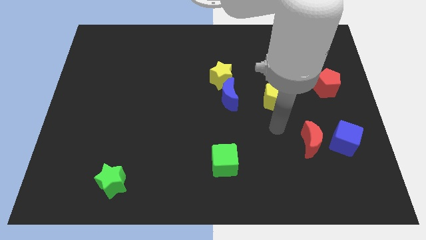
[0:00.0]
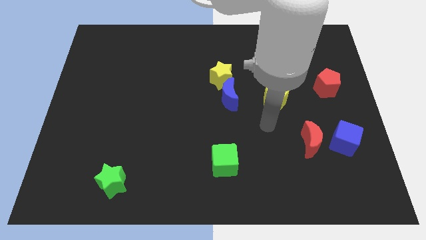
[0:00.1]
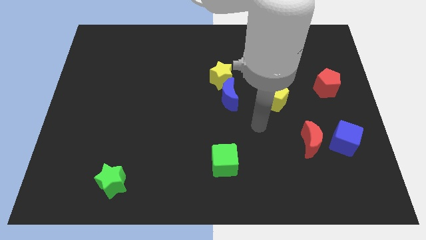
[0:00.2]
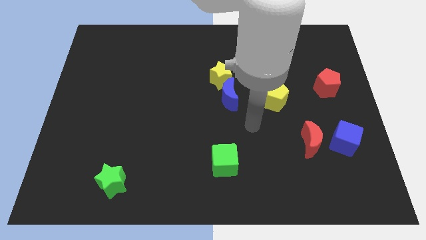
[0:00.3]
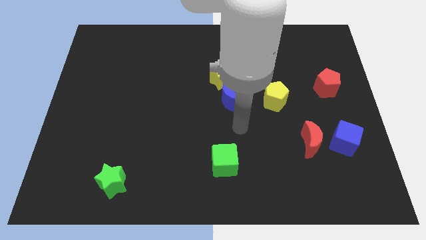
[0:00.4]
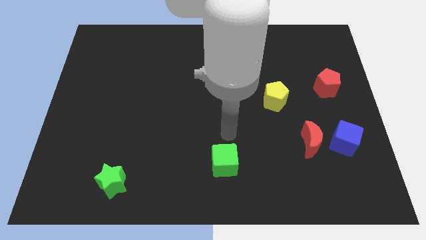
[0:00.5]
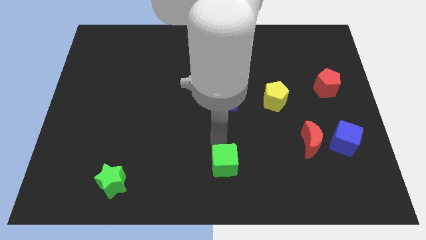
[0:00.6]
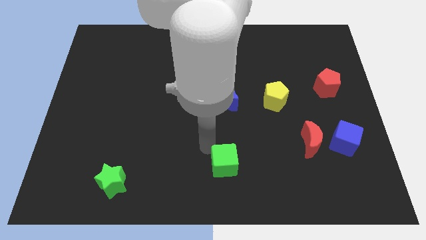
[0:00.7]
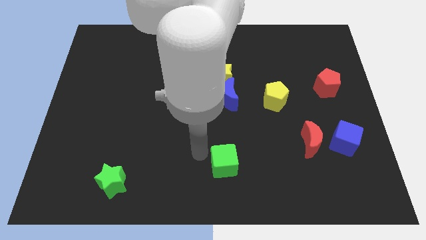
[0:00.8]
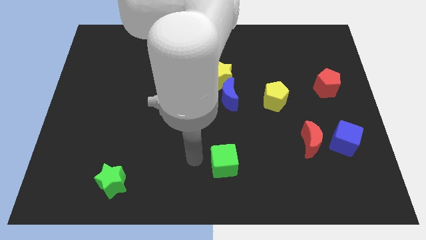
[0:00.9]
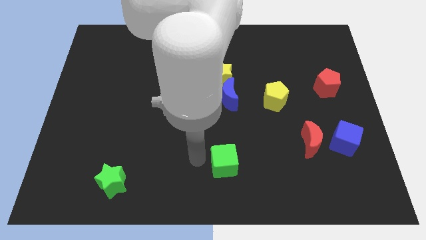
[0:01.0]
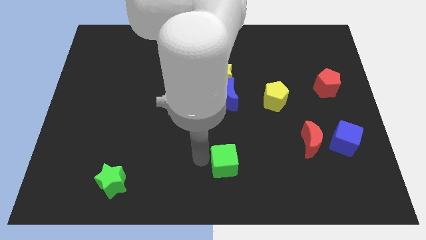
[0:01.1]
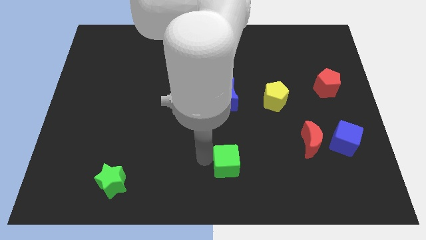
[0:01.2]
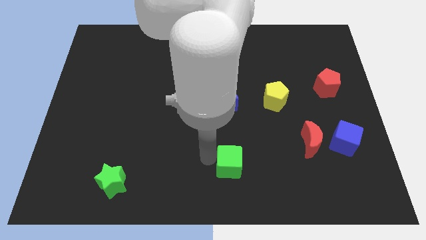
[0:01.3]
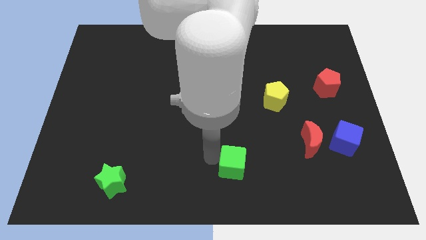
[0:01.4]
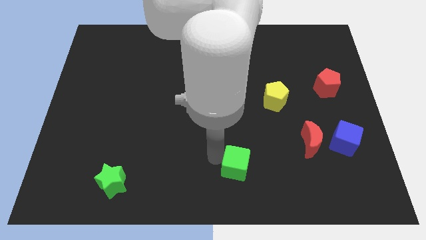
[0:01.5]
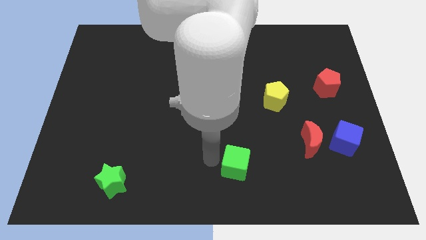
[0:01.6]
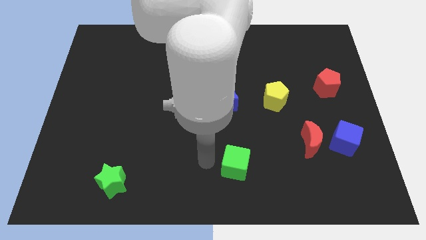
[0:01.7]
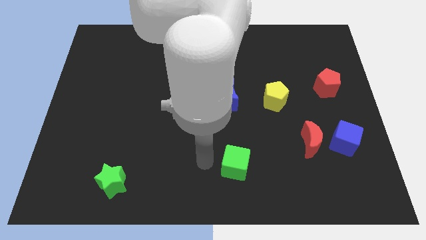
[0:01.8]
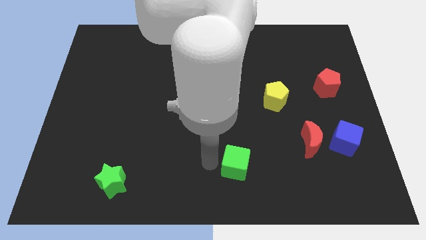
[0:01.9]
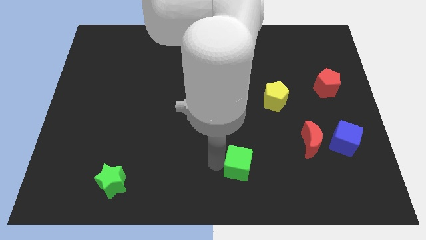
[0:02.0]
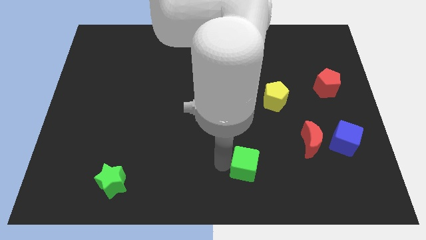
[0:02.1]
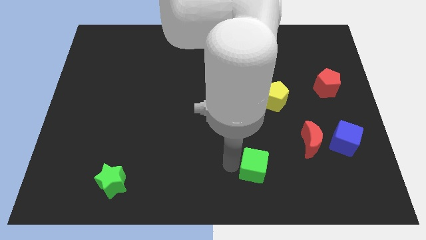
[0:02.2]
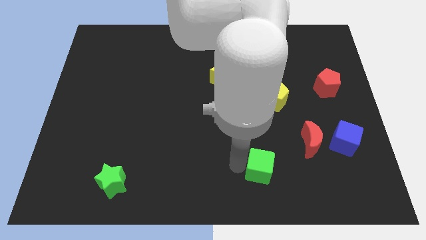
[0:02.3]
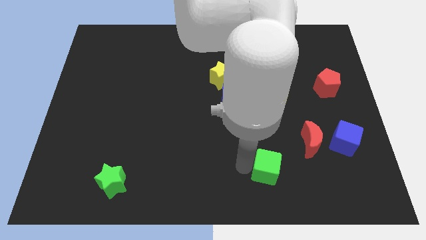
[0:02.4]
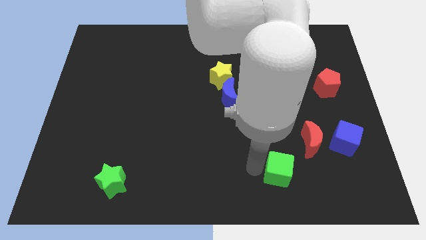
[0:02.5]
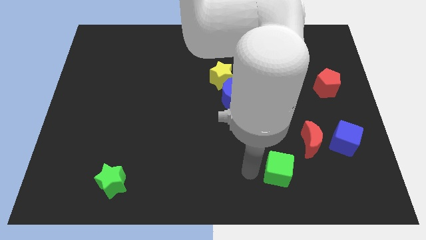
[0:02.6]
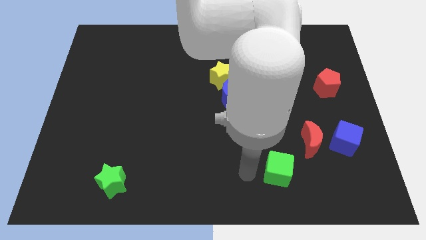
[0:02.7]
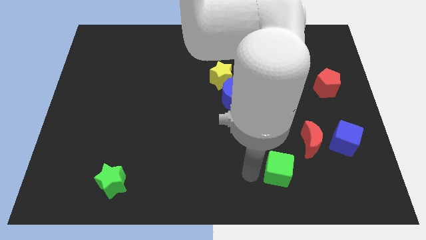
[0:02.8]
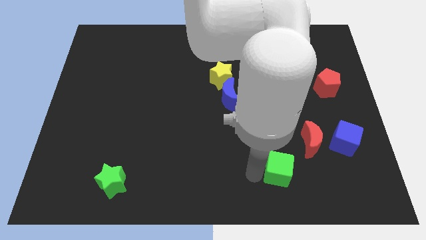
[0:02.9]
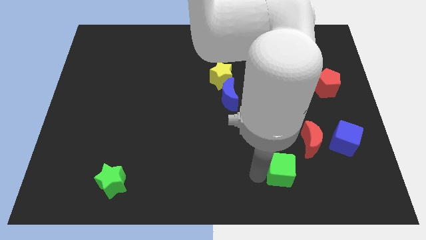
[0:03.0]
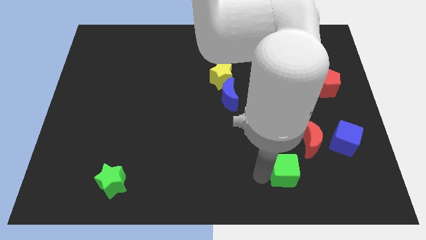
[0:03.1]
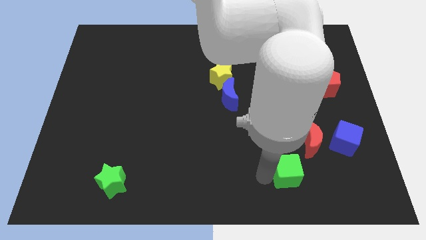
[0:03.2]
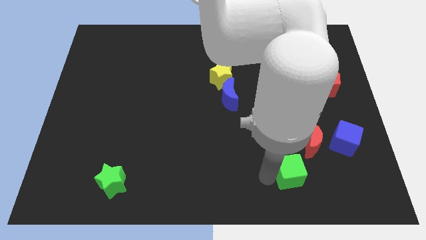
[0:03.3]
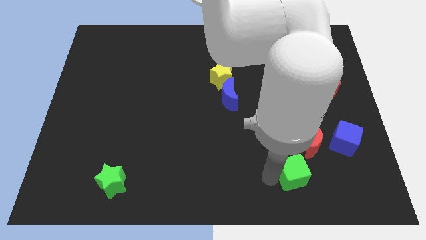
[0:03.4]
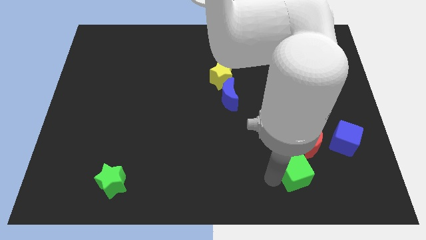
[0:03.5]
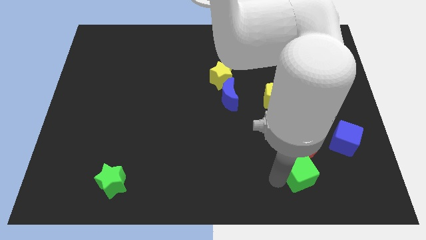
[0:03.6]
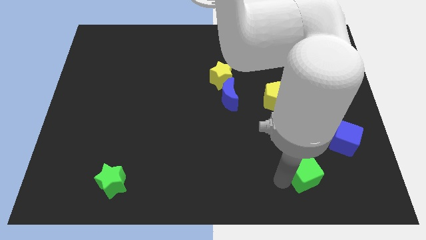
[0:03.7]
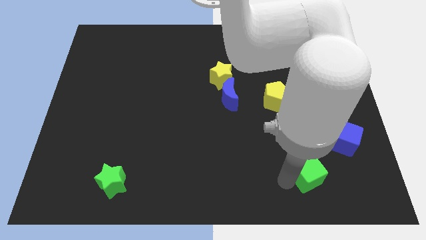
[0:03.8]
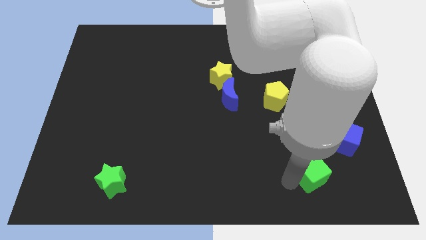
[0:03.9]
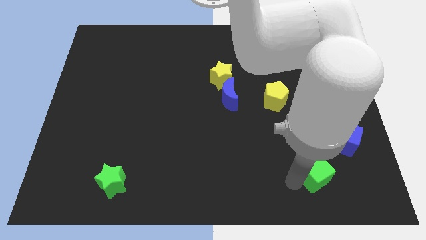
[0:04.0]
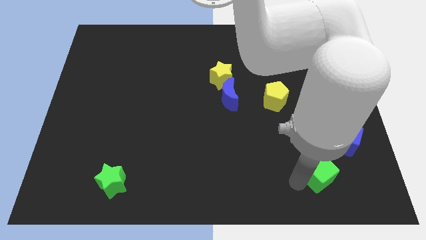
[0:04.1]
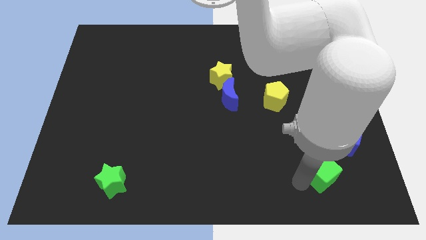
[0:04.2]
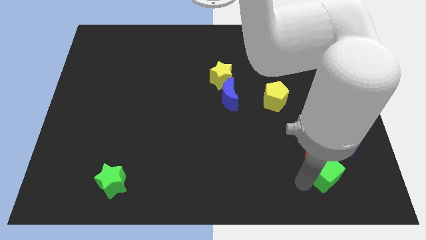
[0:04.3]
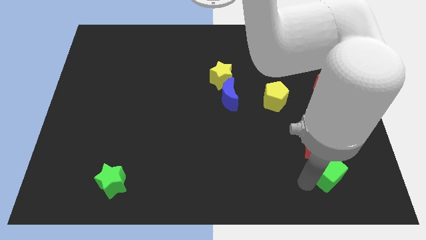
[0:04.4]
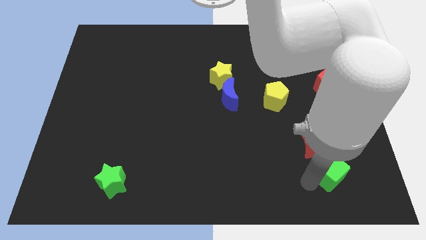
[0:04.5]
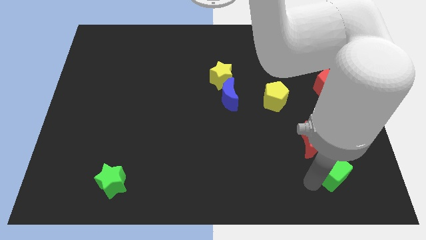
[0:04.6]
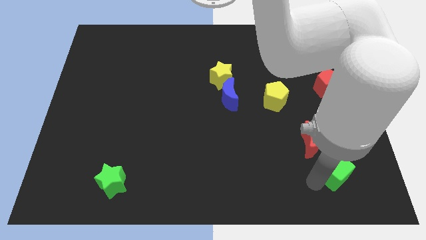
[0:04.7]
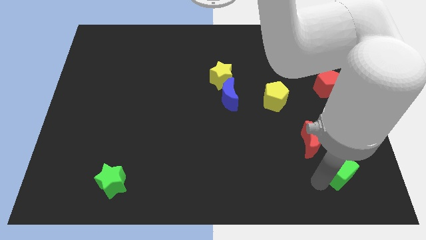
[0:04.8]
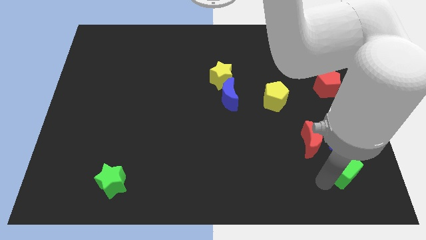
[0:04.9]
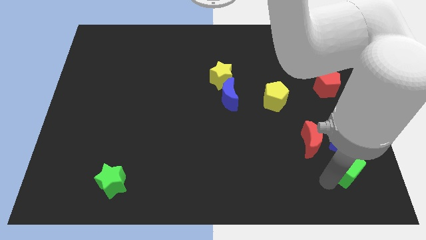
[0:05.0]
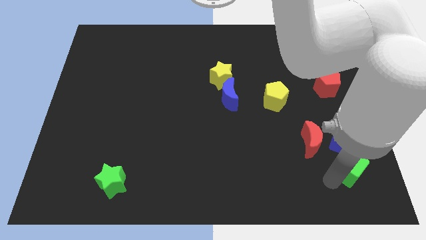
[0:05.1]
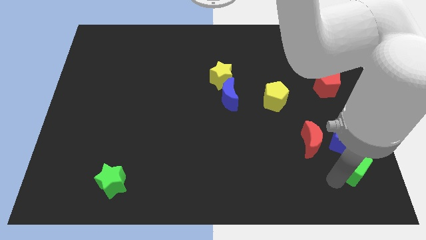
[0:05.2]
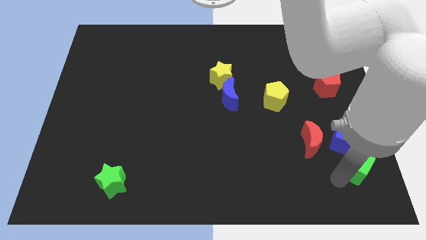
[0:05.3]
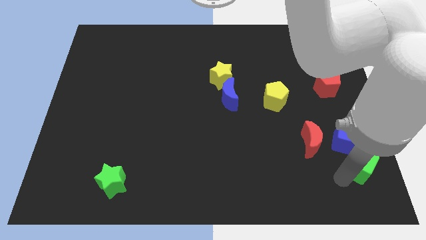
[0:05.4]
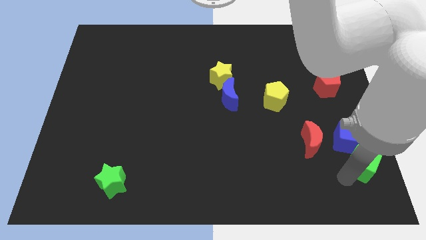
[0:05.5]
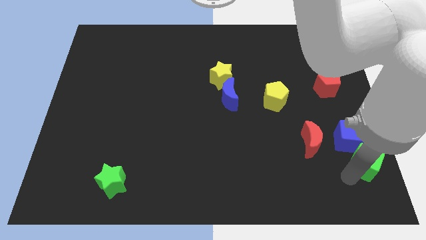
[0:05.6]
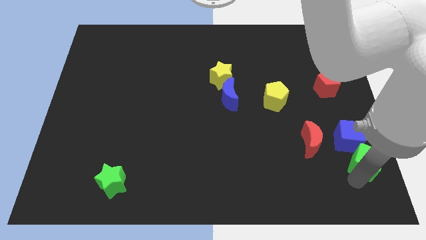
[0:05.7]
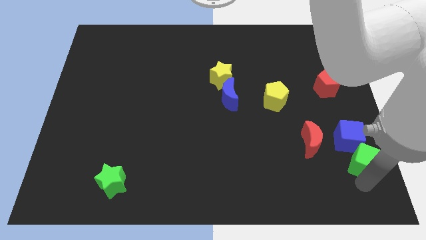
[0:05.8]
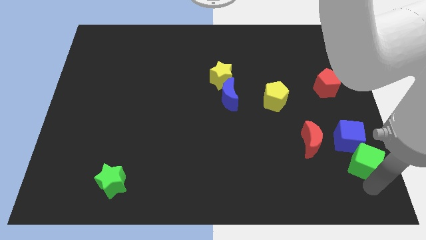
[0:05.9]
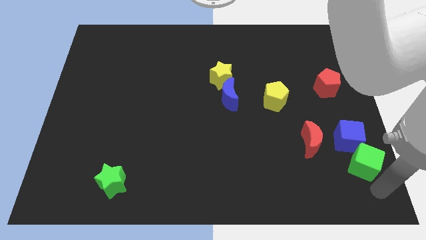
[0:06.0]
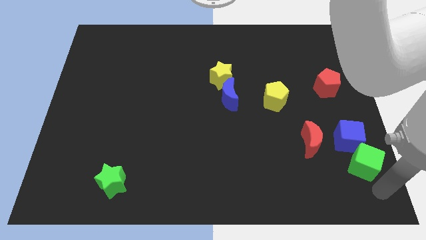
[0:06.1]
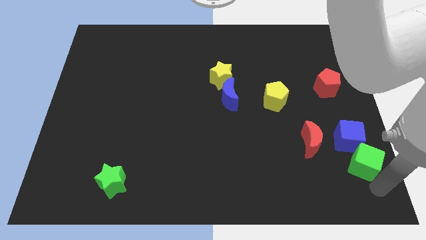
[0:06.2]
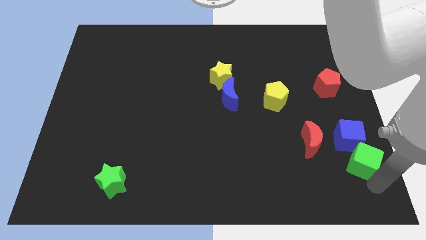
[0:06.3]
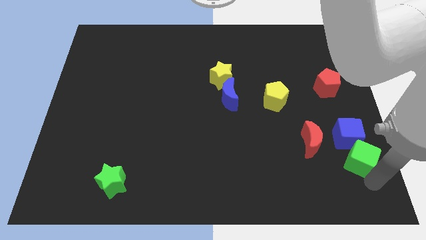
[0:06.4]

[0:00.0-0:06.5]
push the green cube to the blue cube
